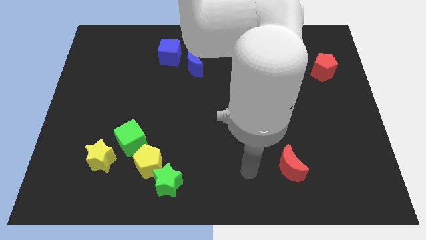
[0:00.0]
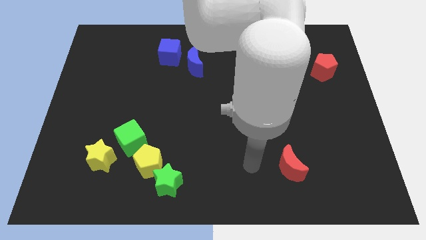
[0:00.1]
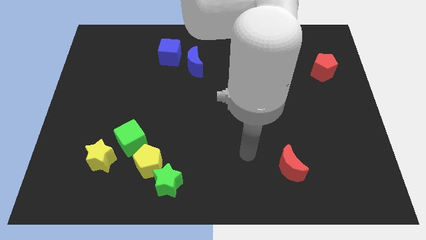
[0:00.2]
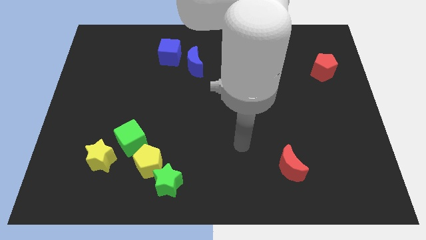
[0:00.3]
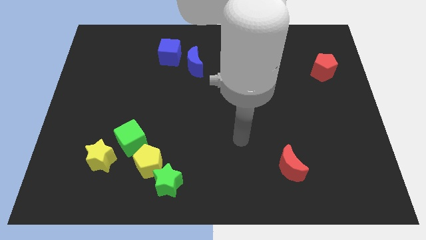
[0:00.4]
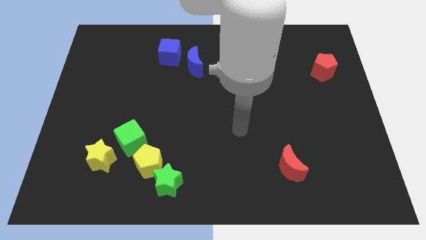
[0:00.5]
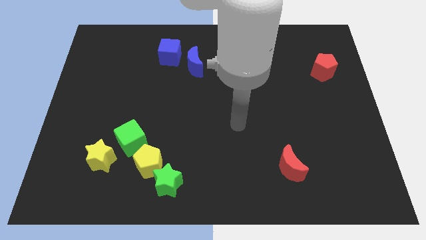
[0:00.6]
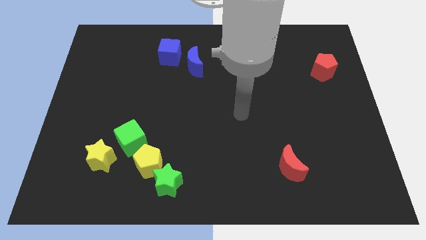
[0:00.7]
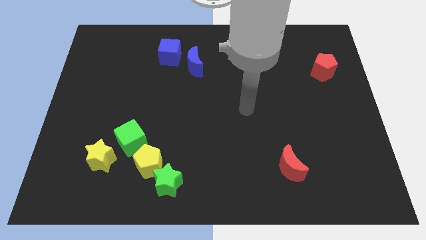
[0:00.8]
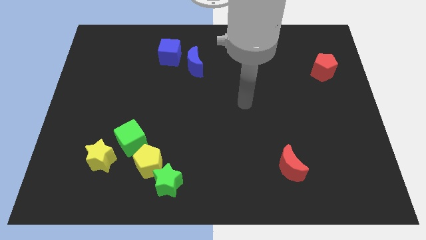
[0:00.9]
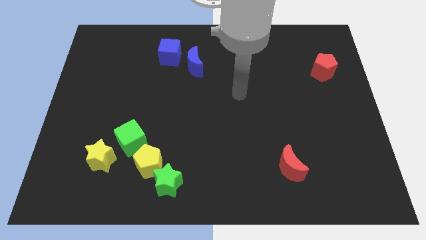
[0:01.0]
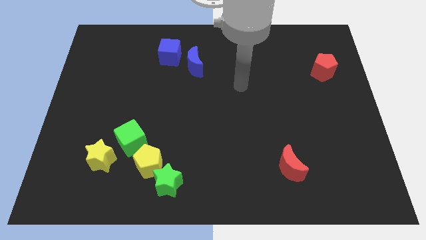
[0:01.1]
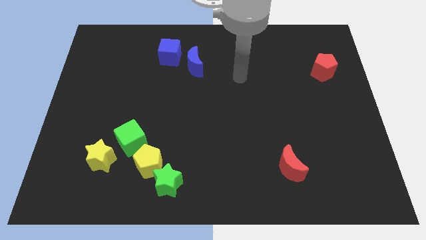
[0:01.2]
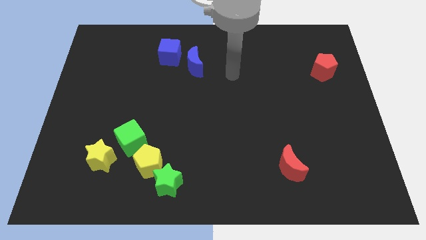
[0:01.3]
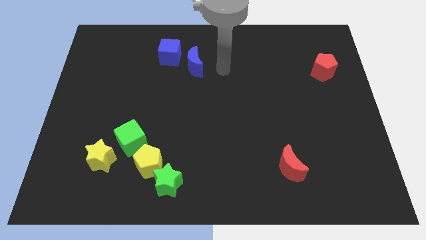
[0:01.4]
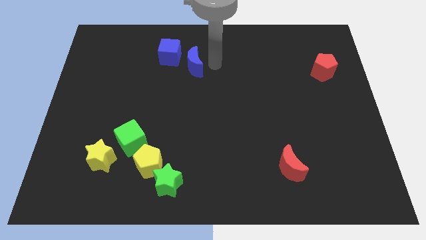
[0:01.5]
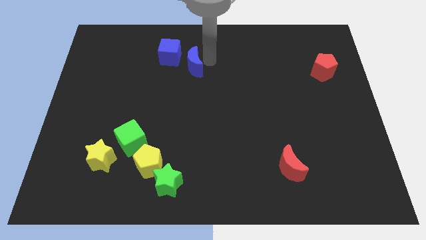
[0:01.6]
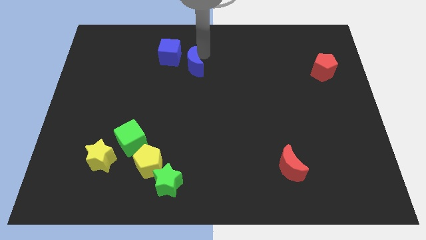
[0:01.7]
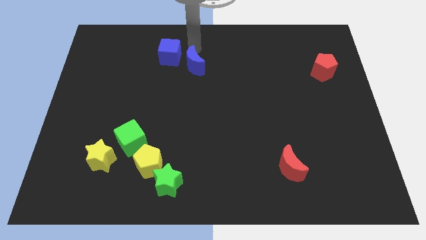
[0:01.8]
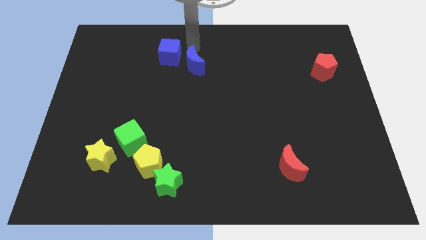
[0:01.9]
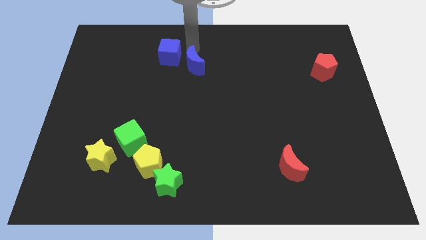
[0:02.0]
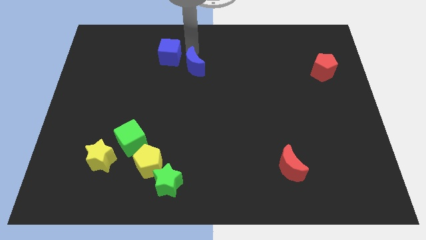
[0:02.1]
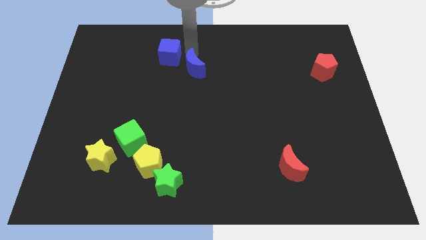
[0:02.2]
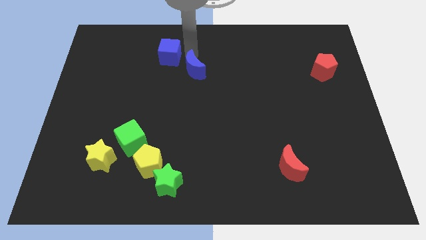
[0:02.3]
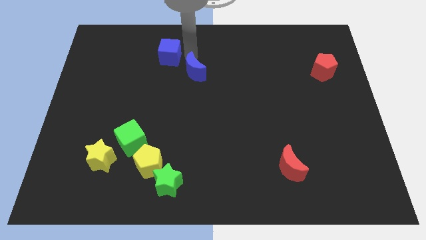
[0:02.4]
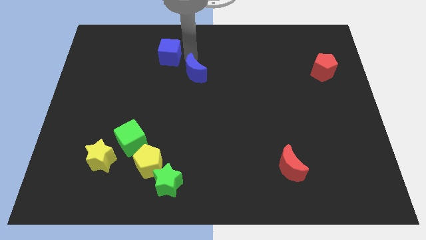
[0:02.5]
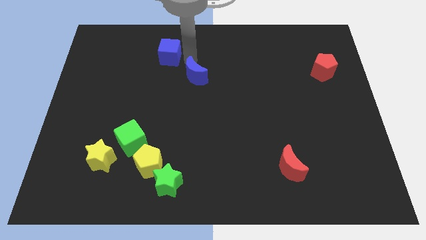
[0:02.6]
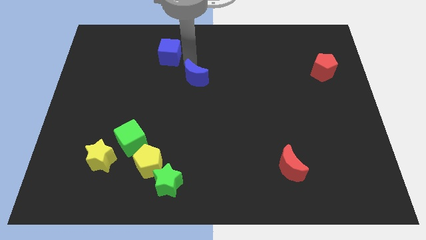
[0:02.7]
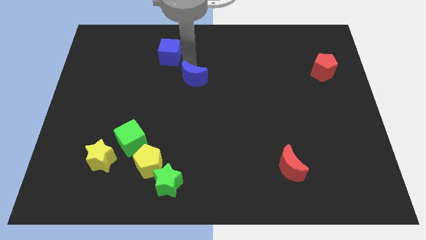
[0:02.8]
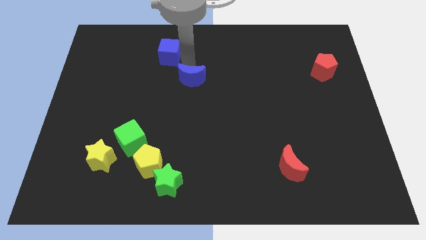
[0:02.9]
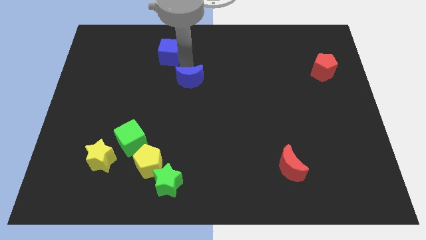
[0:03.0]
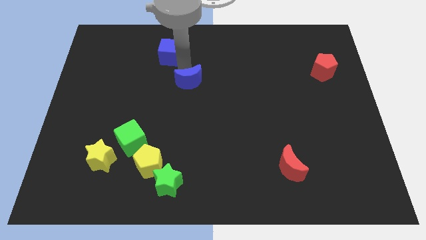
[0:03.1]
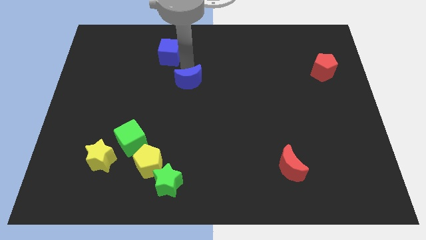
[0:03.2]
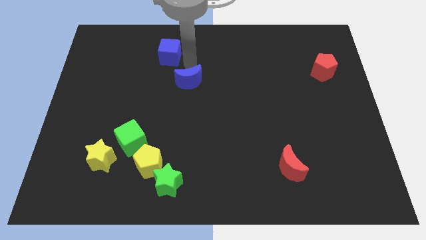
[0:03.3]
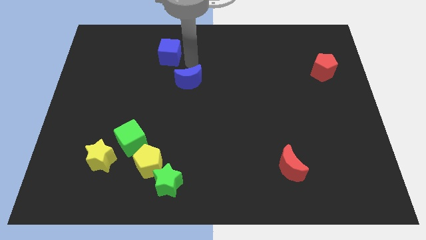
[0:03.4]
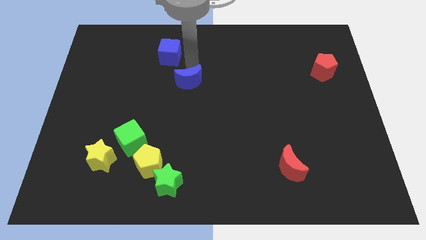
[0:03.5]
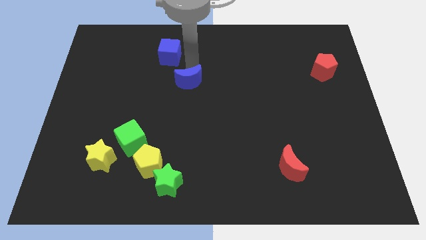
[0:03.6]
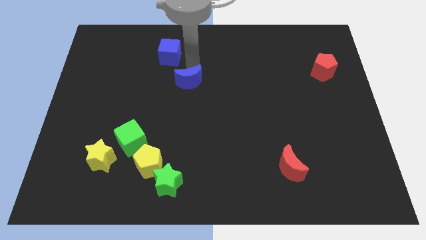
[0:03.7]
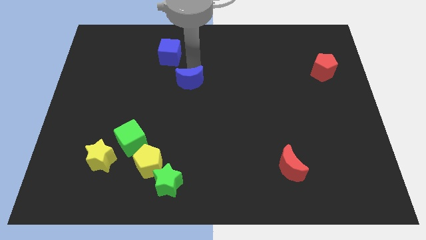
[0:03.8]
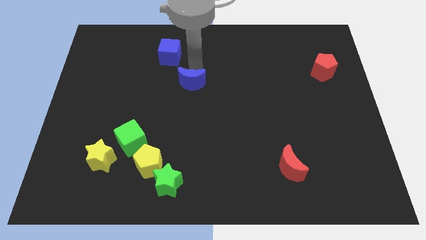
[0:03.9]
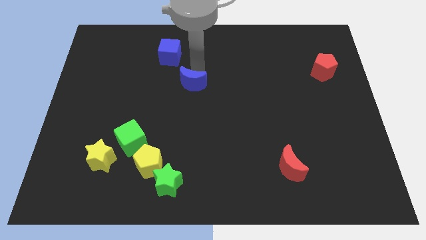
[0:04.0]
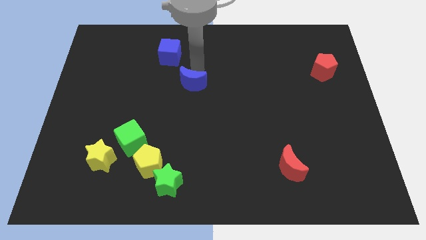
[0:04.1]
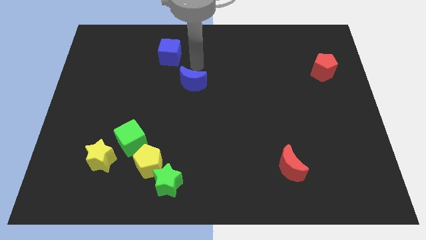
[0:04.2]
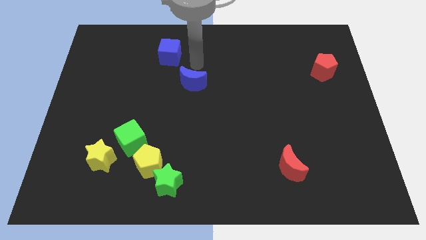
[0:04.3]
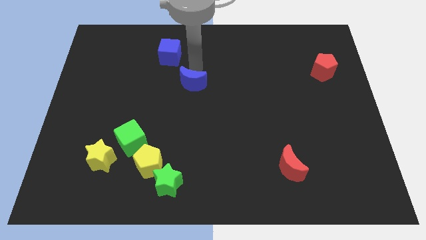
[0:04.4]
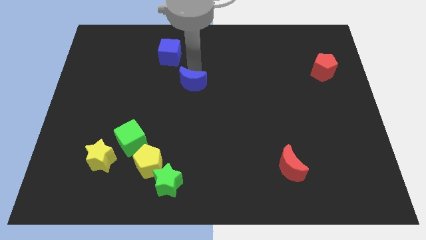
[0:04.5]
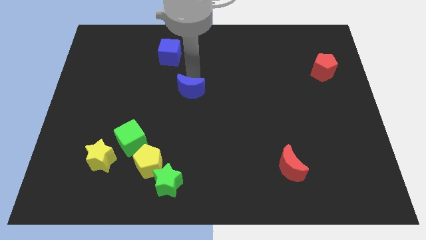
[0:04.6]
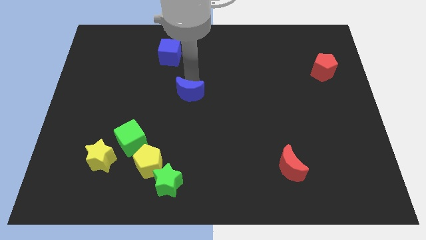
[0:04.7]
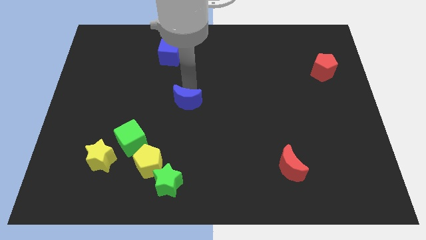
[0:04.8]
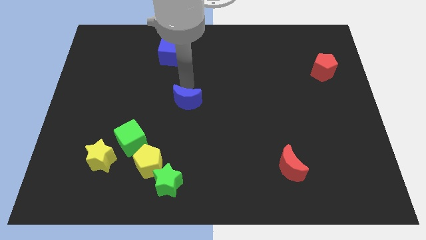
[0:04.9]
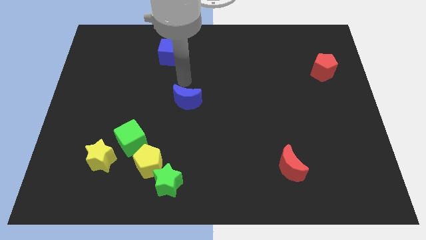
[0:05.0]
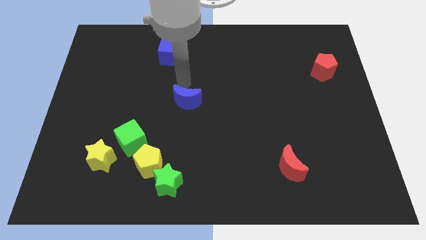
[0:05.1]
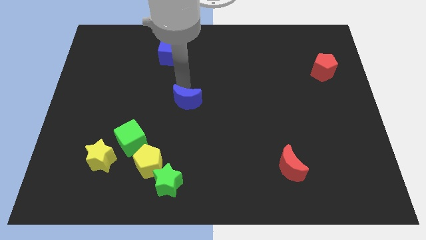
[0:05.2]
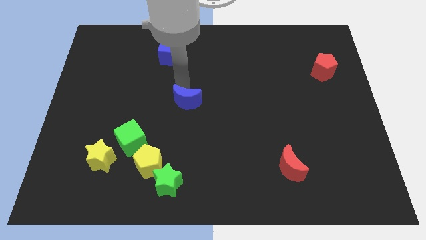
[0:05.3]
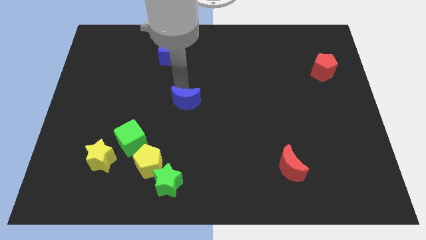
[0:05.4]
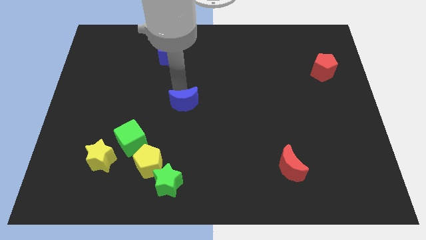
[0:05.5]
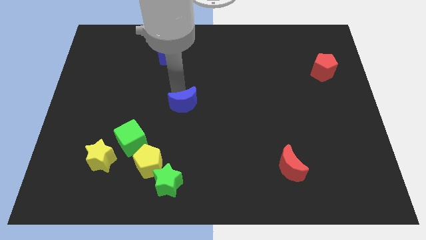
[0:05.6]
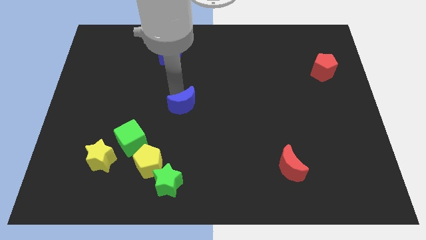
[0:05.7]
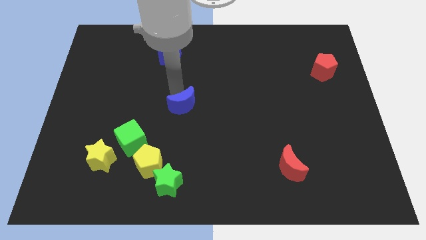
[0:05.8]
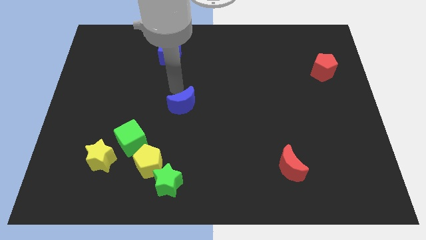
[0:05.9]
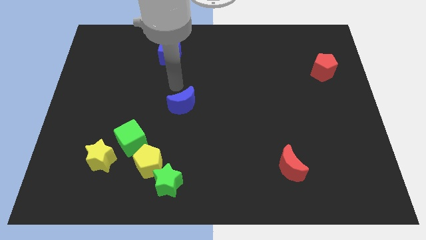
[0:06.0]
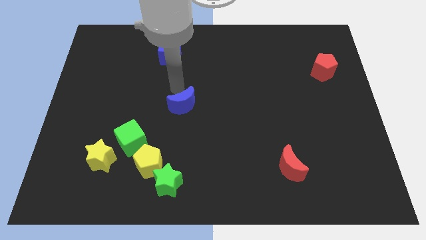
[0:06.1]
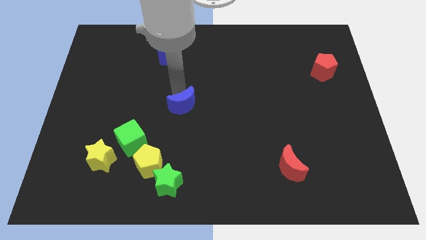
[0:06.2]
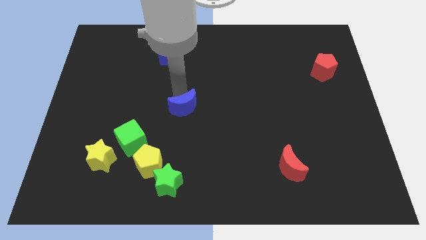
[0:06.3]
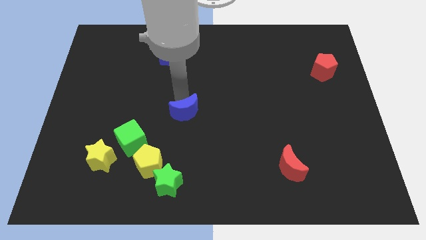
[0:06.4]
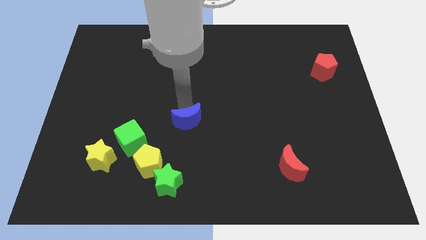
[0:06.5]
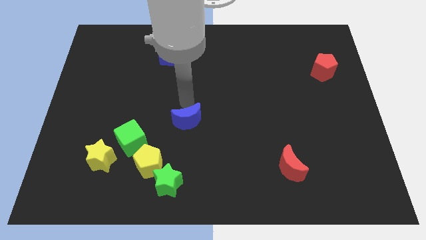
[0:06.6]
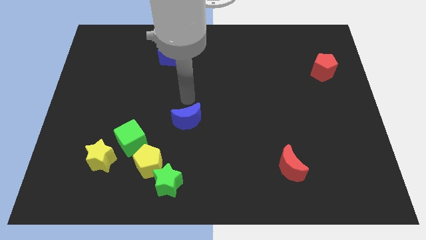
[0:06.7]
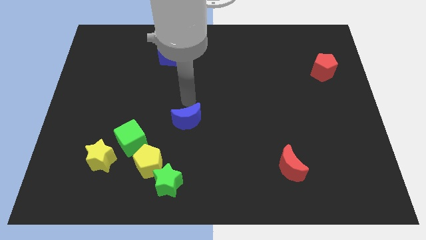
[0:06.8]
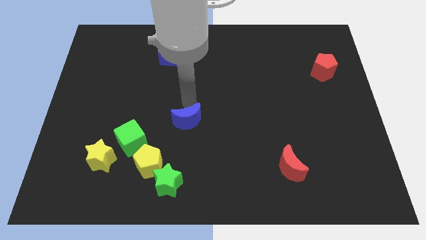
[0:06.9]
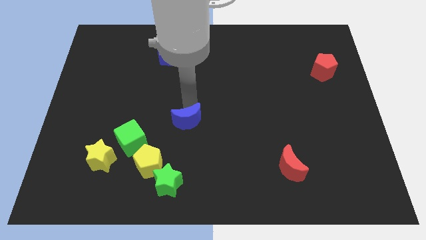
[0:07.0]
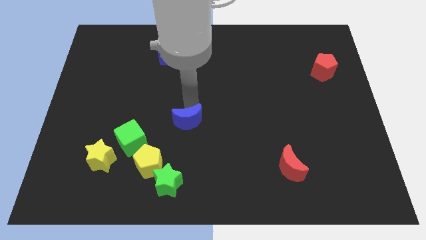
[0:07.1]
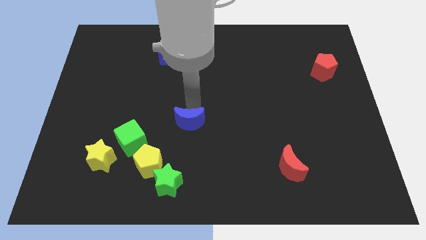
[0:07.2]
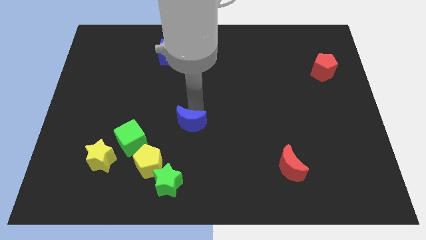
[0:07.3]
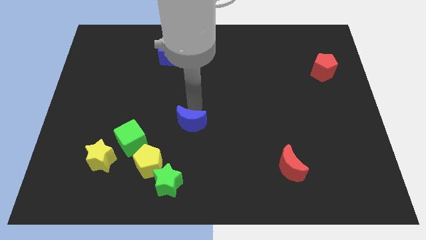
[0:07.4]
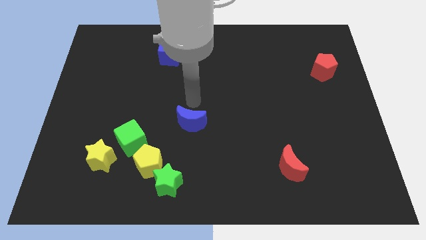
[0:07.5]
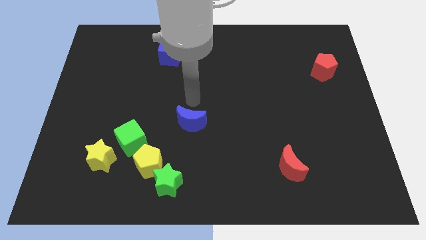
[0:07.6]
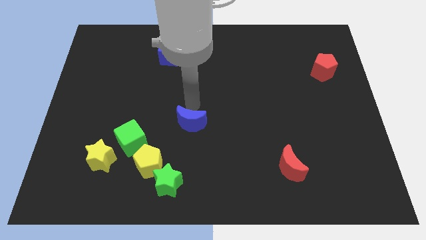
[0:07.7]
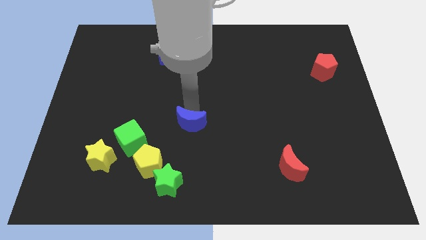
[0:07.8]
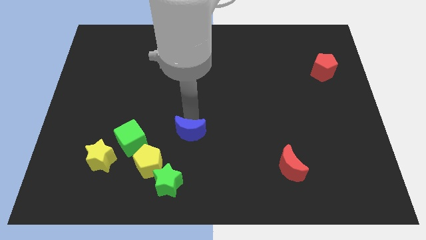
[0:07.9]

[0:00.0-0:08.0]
push the blue moon down
